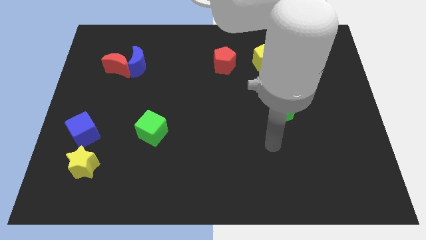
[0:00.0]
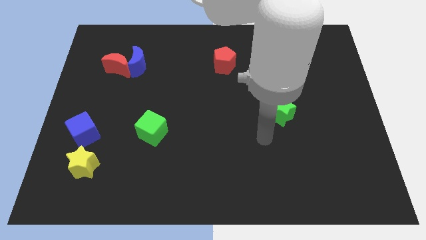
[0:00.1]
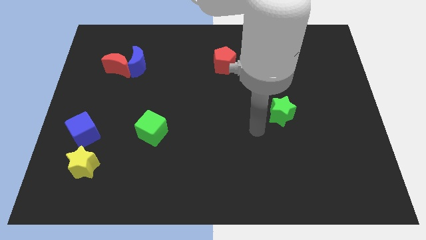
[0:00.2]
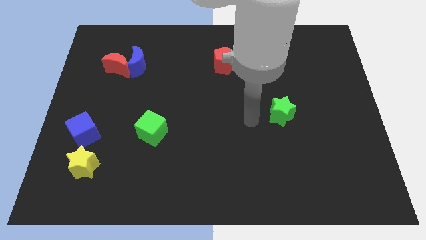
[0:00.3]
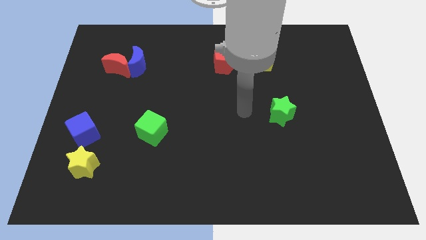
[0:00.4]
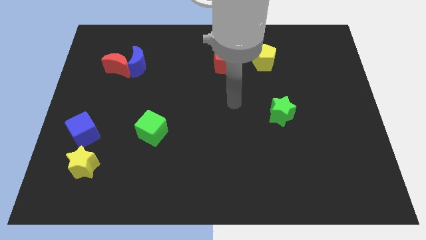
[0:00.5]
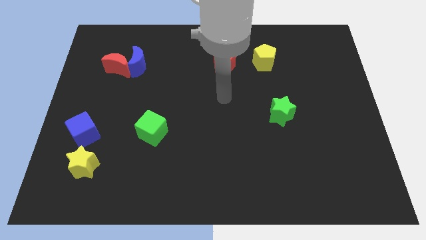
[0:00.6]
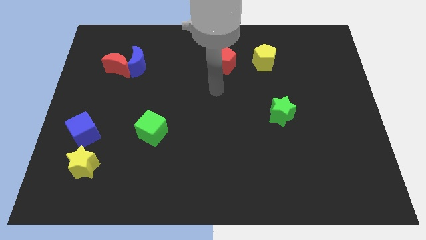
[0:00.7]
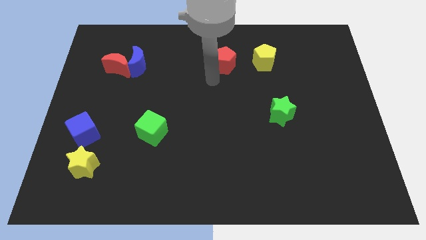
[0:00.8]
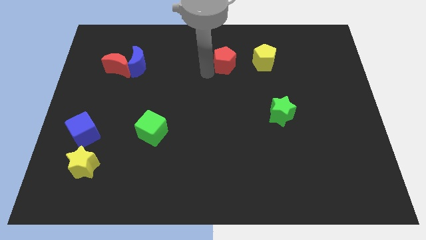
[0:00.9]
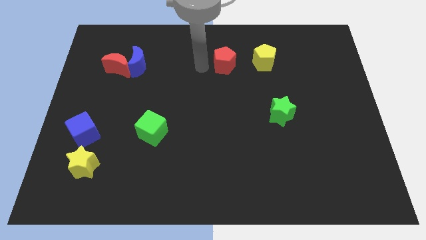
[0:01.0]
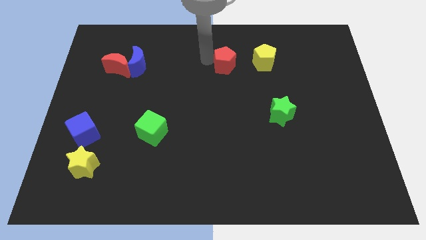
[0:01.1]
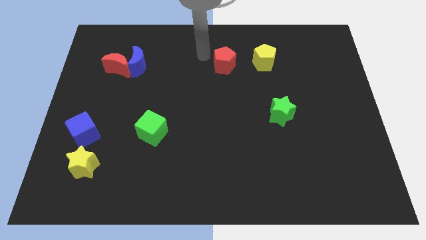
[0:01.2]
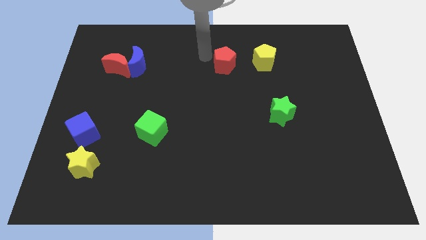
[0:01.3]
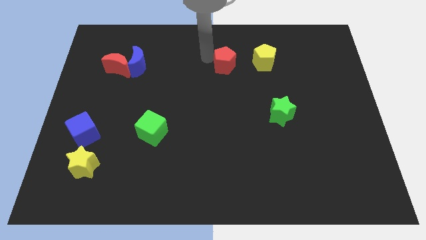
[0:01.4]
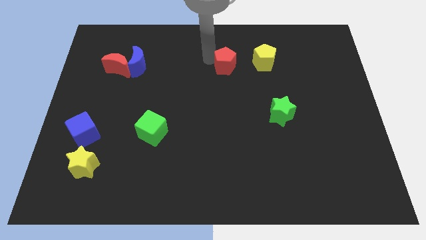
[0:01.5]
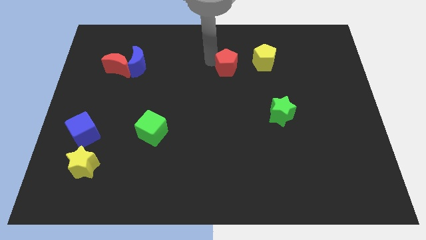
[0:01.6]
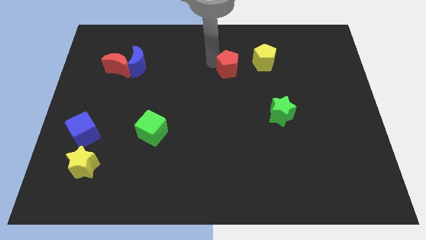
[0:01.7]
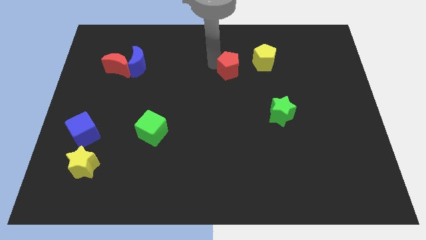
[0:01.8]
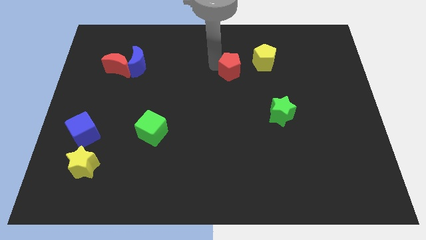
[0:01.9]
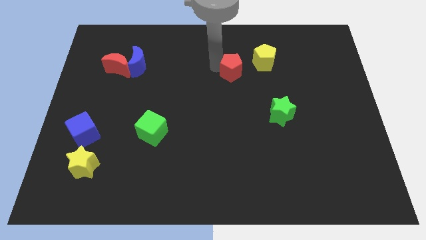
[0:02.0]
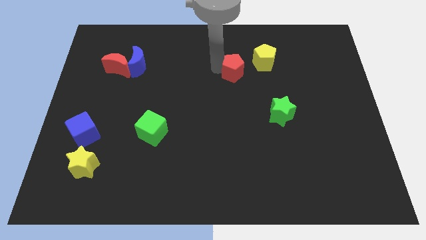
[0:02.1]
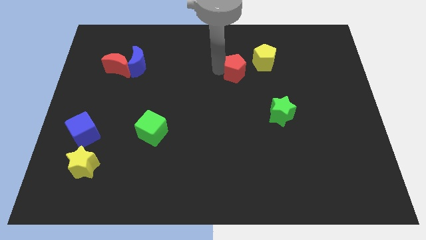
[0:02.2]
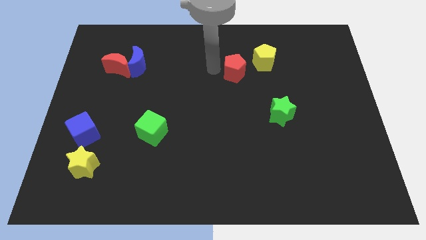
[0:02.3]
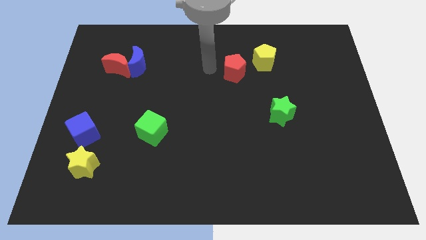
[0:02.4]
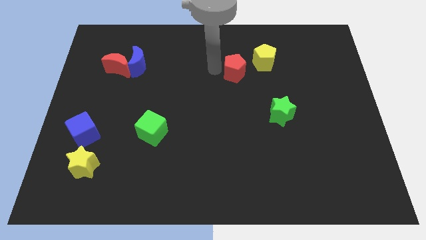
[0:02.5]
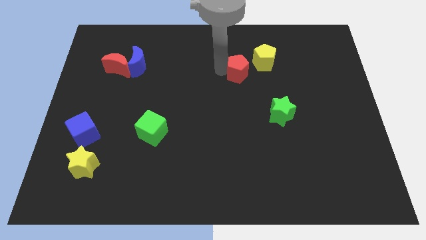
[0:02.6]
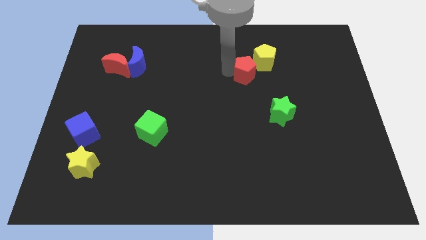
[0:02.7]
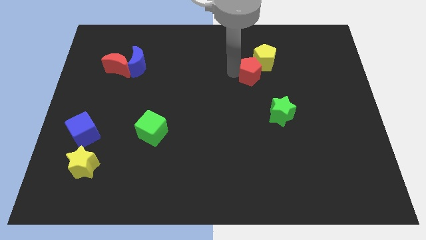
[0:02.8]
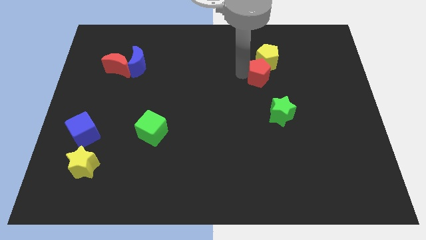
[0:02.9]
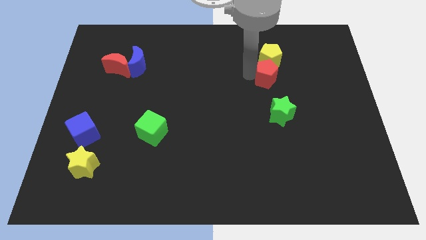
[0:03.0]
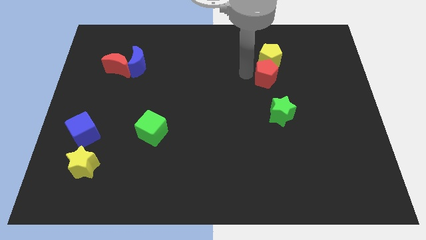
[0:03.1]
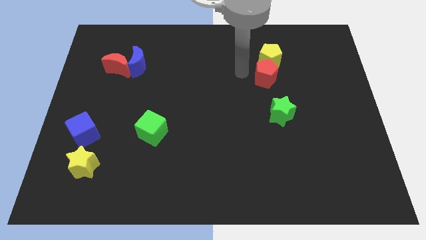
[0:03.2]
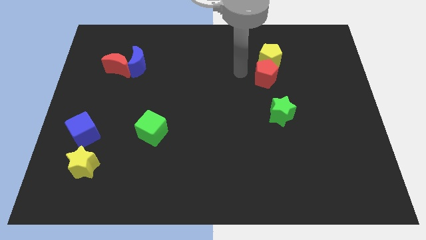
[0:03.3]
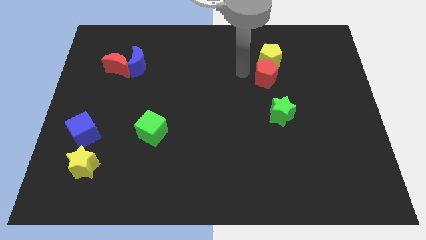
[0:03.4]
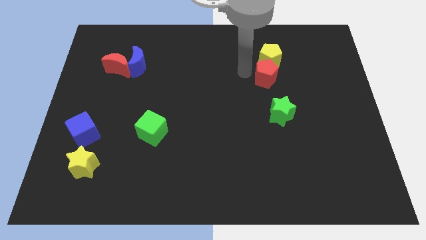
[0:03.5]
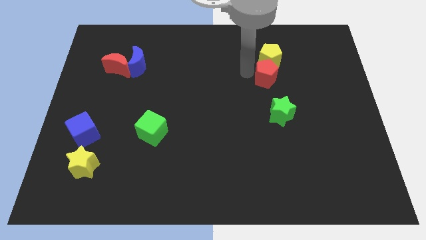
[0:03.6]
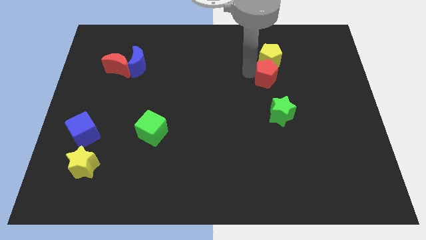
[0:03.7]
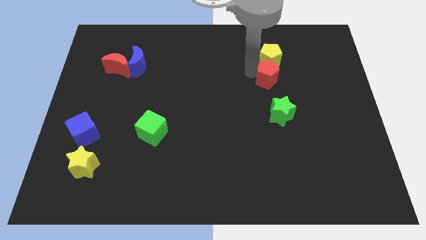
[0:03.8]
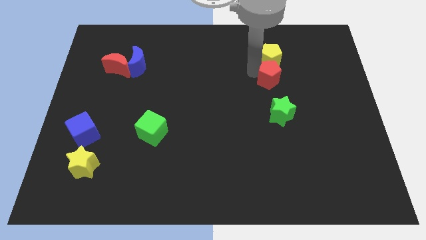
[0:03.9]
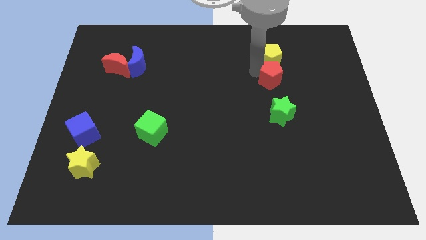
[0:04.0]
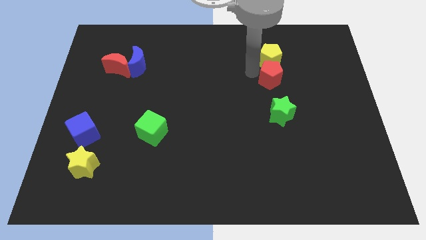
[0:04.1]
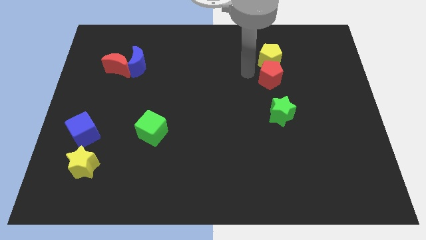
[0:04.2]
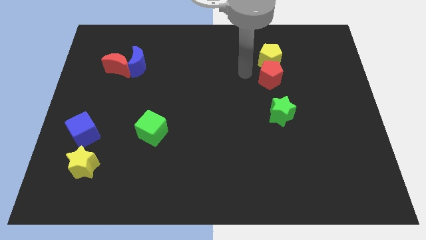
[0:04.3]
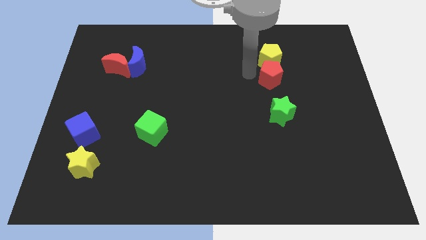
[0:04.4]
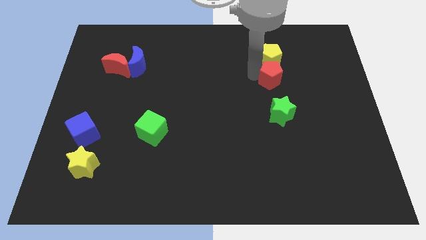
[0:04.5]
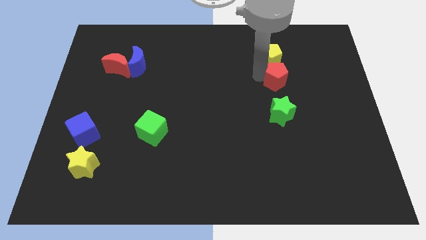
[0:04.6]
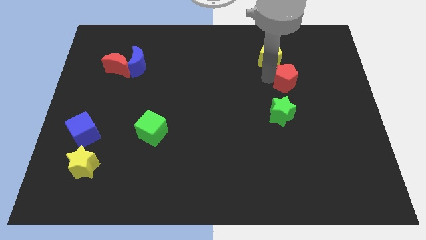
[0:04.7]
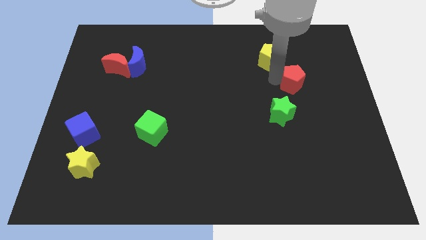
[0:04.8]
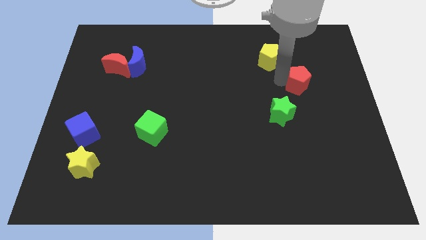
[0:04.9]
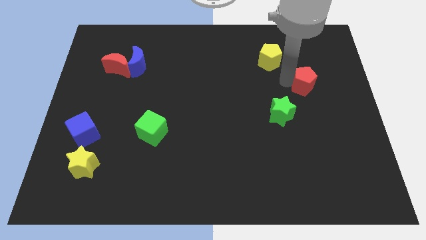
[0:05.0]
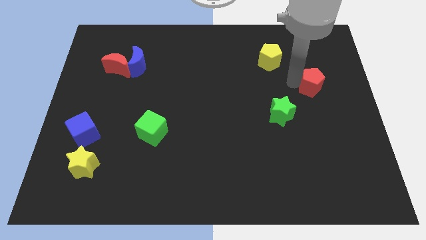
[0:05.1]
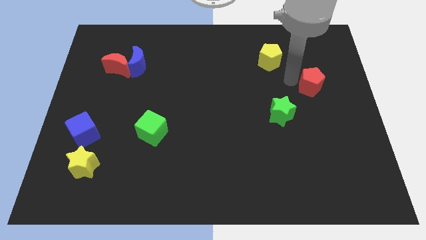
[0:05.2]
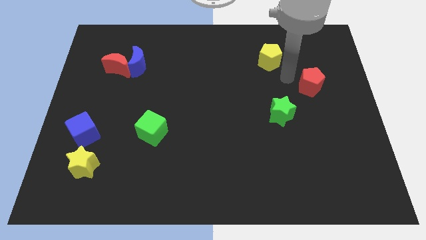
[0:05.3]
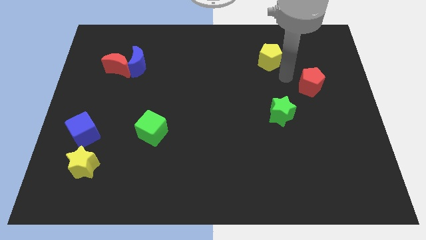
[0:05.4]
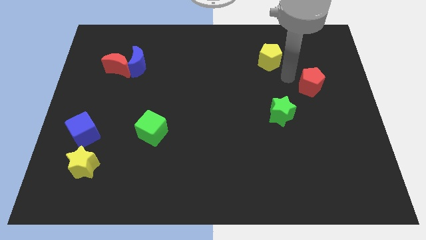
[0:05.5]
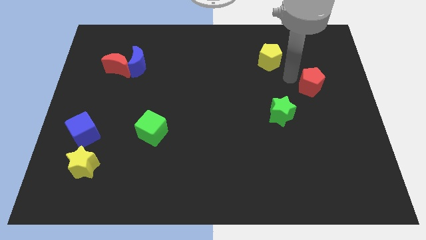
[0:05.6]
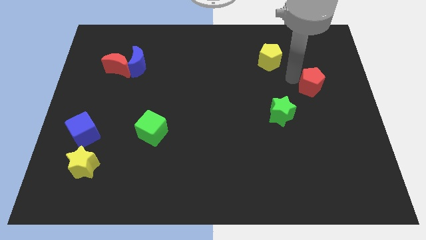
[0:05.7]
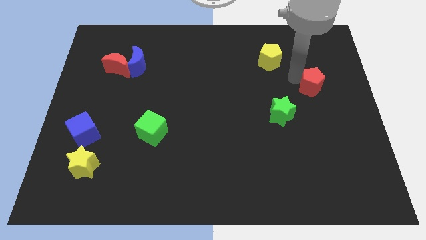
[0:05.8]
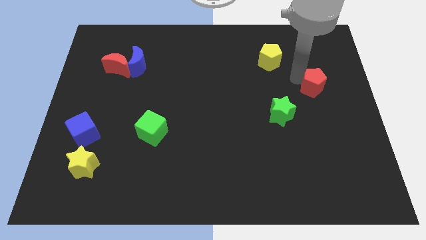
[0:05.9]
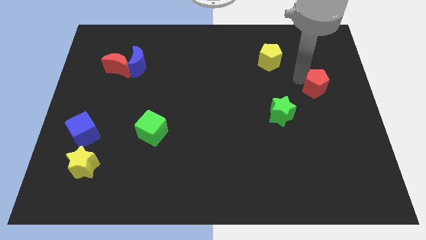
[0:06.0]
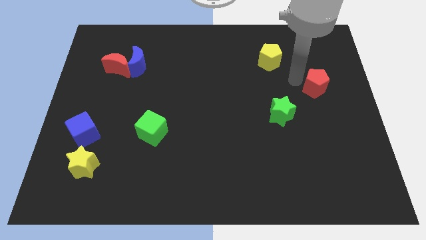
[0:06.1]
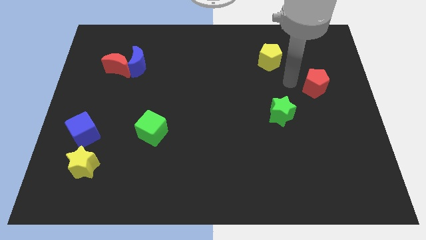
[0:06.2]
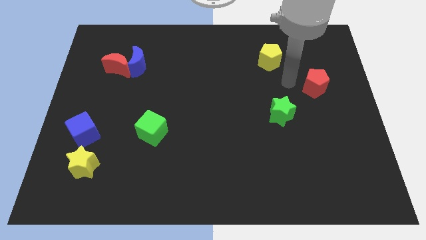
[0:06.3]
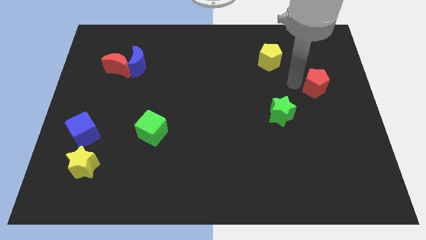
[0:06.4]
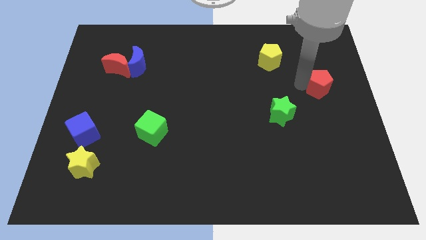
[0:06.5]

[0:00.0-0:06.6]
move the red pentagon to the center right
